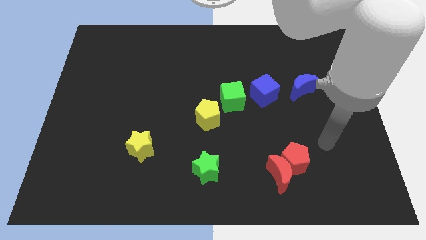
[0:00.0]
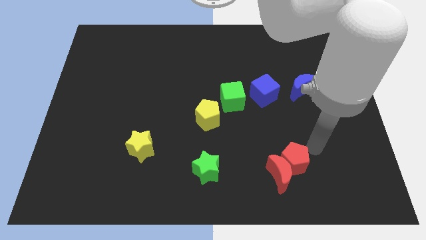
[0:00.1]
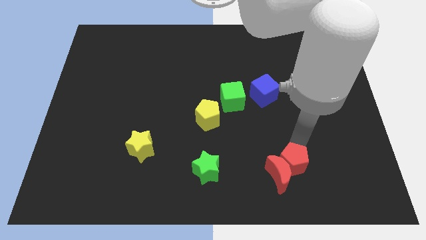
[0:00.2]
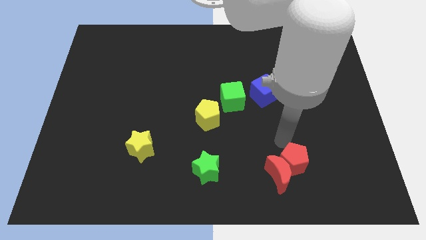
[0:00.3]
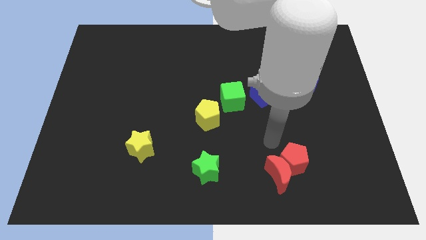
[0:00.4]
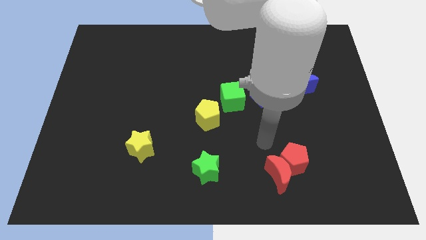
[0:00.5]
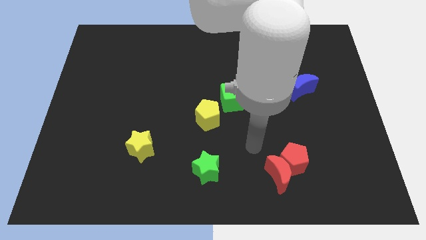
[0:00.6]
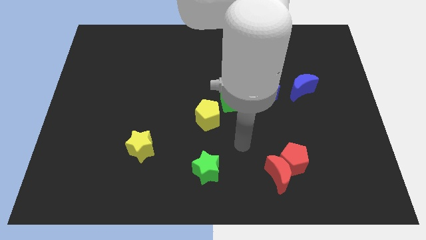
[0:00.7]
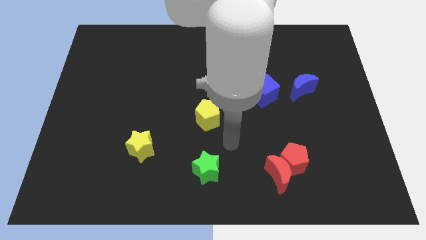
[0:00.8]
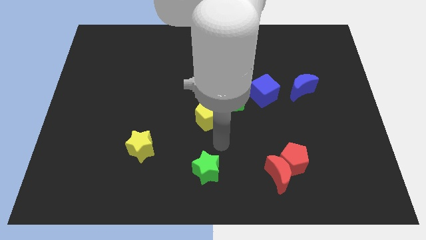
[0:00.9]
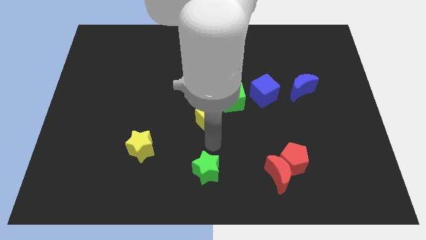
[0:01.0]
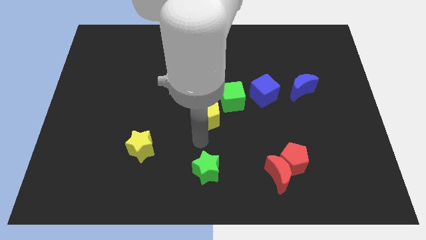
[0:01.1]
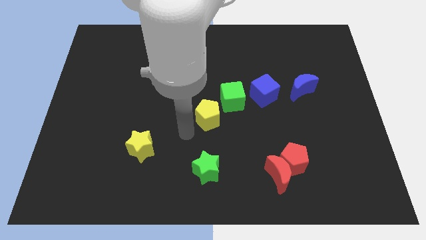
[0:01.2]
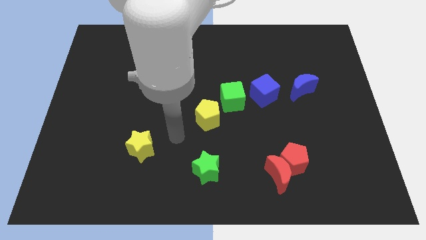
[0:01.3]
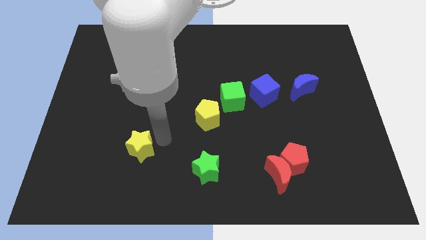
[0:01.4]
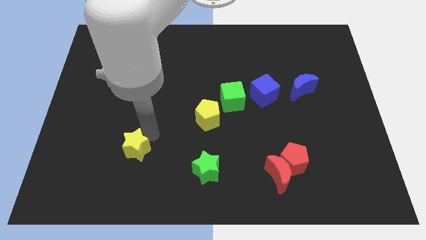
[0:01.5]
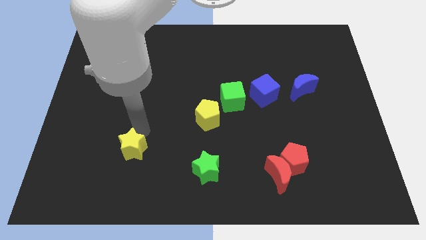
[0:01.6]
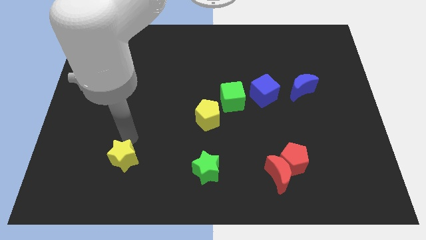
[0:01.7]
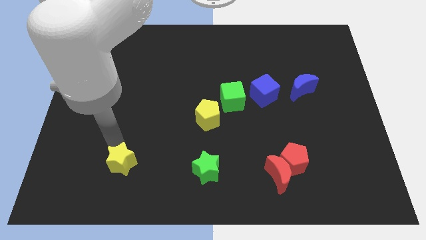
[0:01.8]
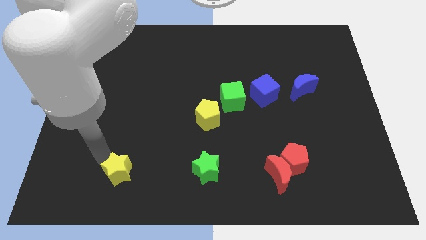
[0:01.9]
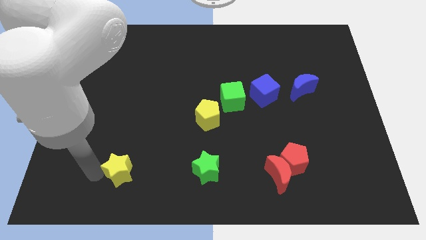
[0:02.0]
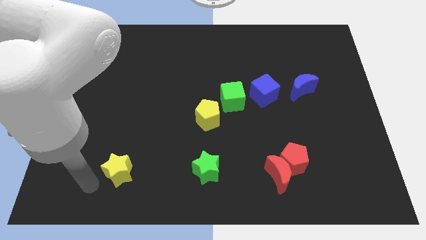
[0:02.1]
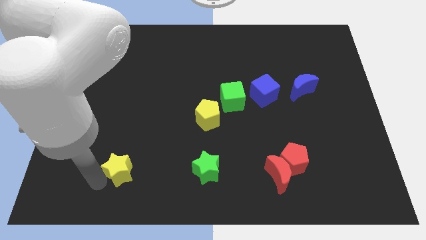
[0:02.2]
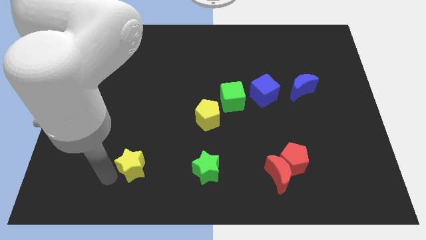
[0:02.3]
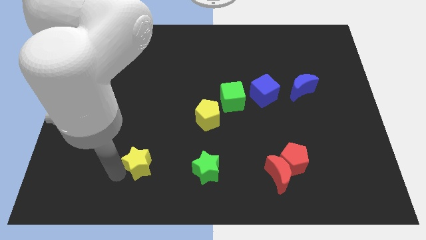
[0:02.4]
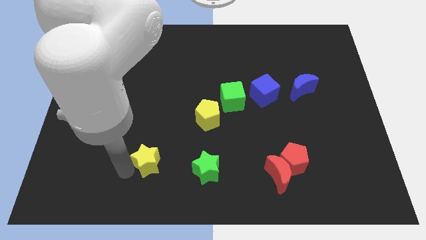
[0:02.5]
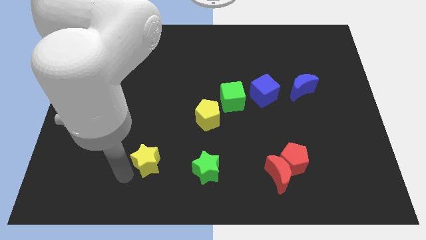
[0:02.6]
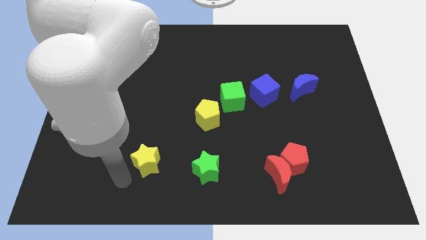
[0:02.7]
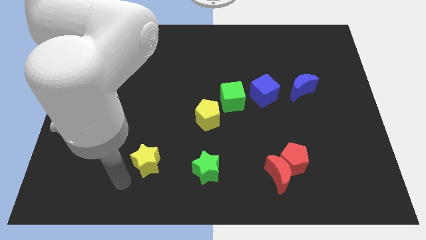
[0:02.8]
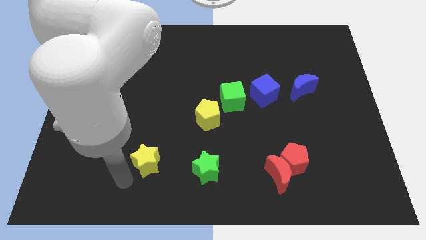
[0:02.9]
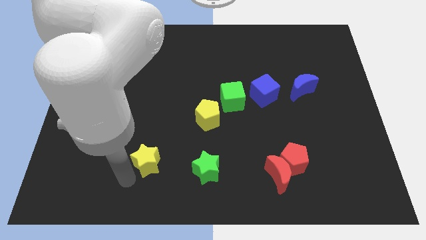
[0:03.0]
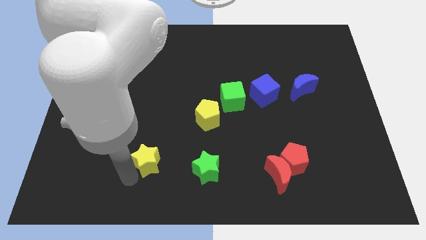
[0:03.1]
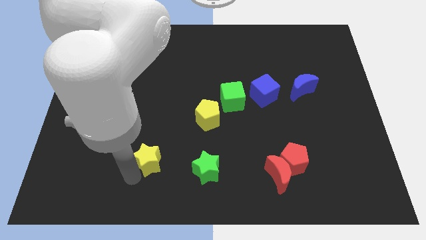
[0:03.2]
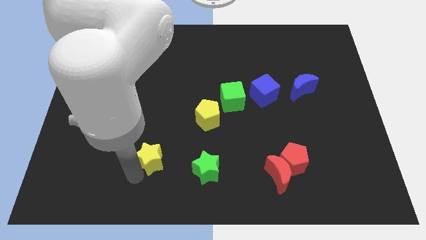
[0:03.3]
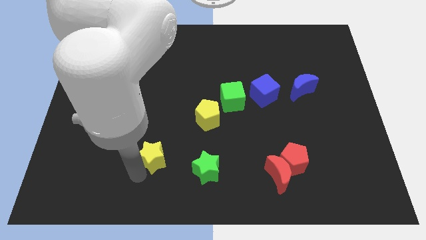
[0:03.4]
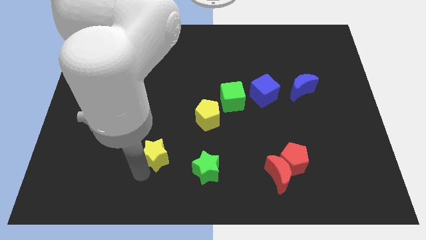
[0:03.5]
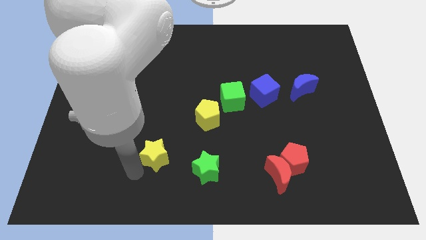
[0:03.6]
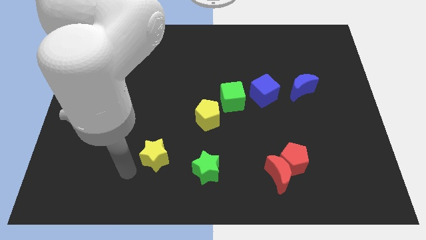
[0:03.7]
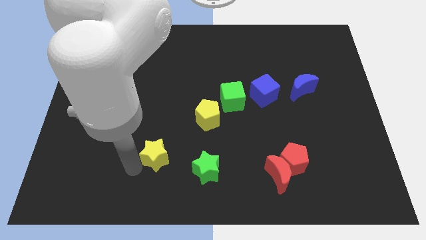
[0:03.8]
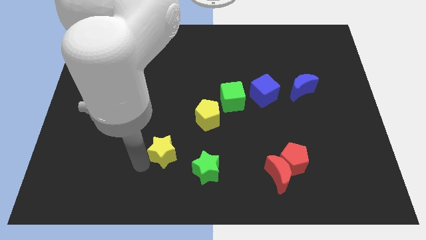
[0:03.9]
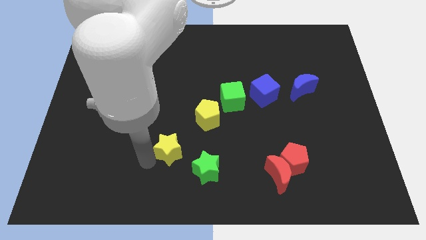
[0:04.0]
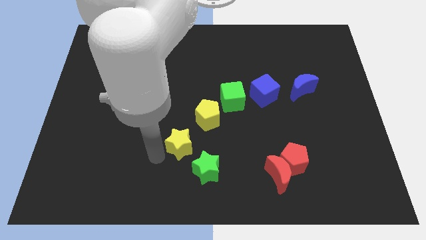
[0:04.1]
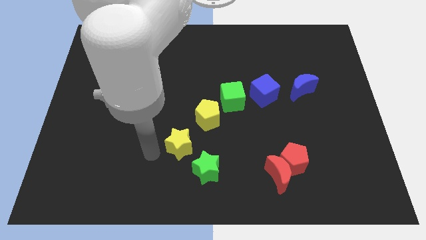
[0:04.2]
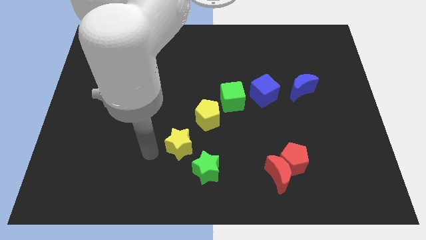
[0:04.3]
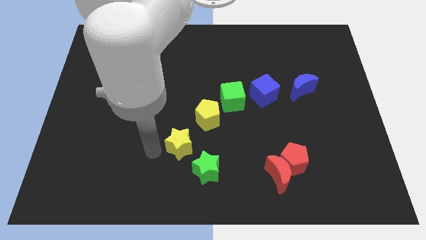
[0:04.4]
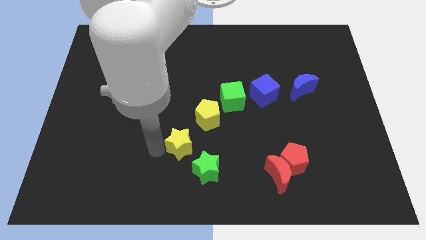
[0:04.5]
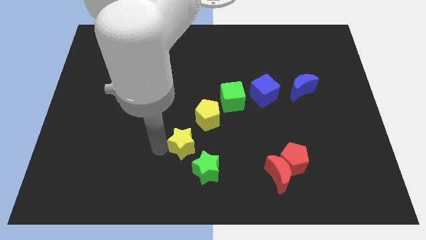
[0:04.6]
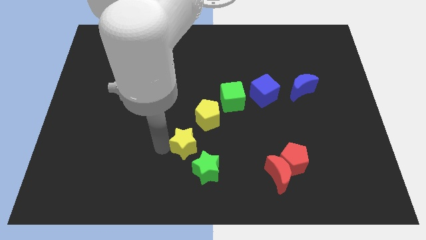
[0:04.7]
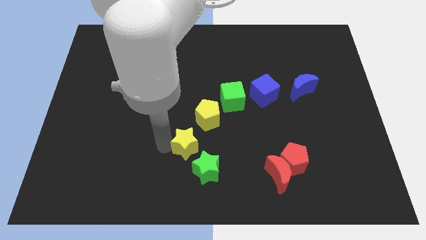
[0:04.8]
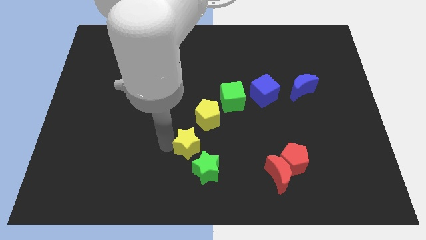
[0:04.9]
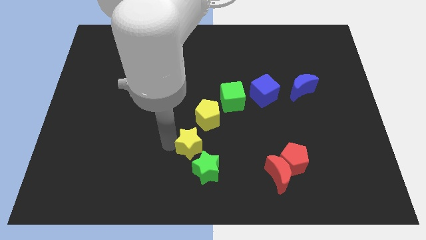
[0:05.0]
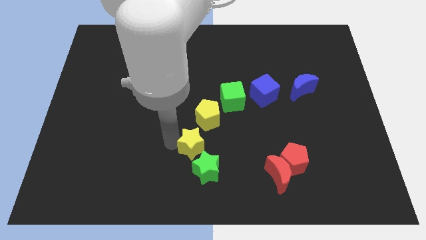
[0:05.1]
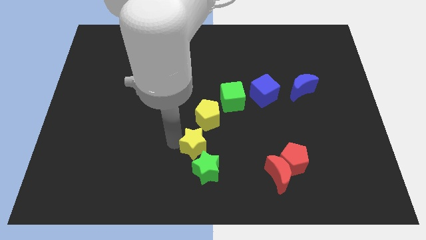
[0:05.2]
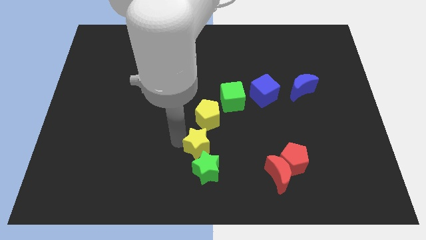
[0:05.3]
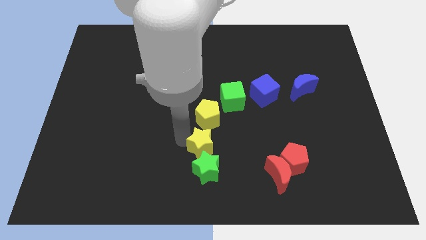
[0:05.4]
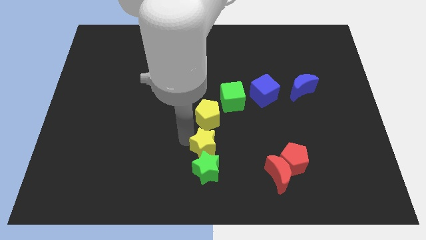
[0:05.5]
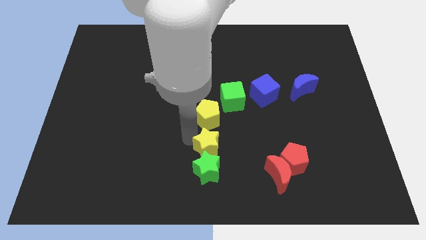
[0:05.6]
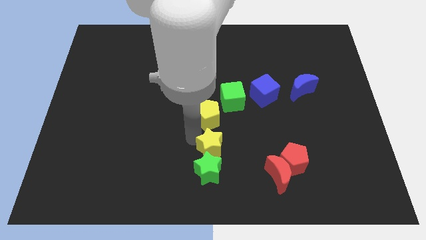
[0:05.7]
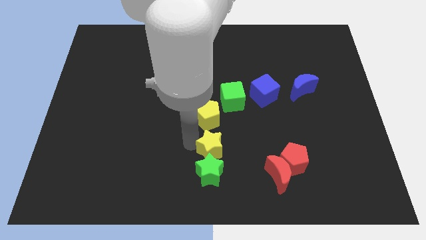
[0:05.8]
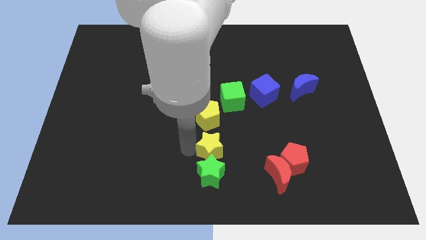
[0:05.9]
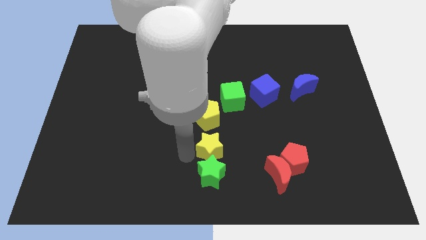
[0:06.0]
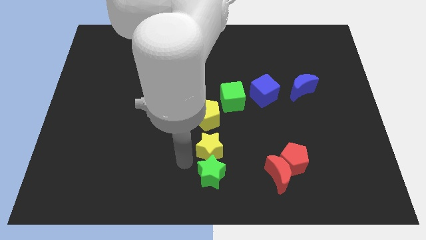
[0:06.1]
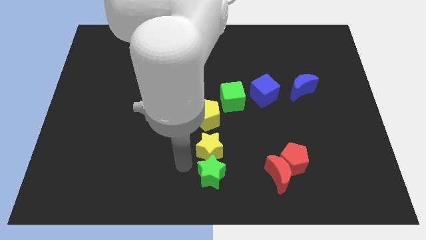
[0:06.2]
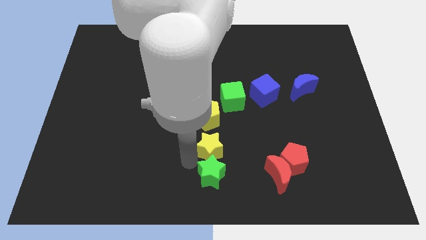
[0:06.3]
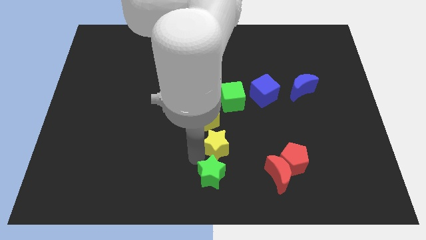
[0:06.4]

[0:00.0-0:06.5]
slide the yellow star to the bottom right of the yellow pentagon

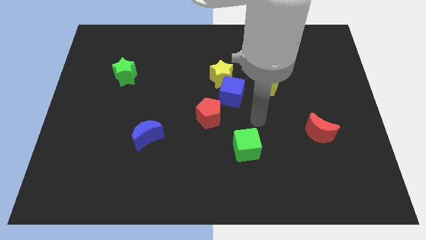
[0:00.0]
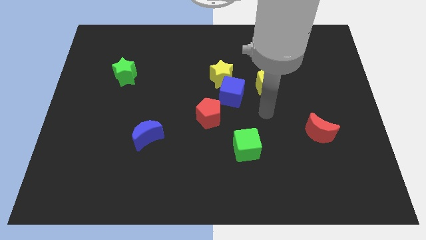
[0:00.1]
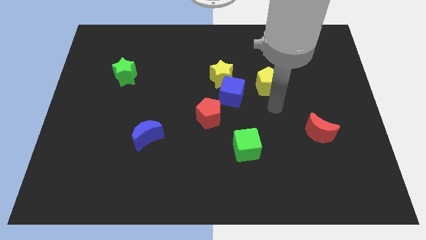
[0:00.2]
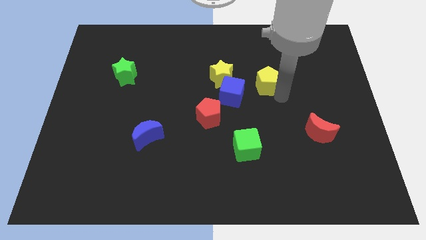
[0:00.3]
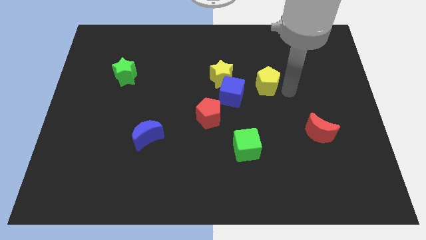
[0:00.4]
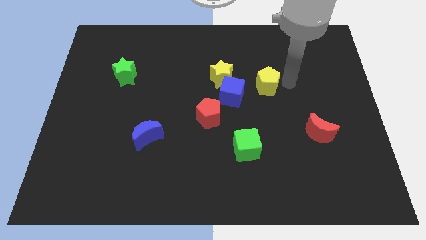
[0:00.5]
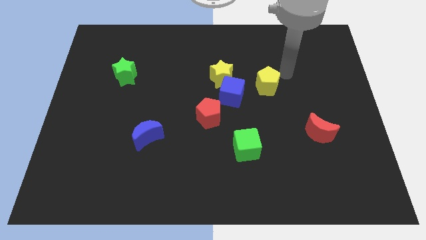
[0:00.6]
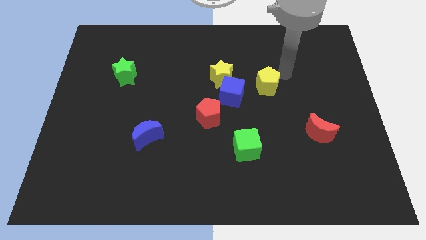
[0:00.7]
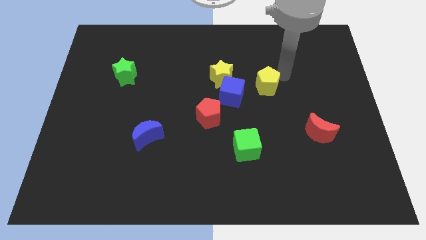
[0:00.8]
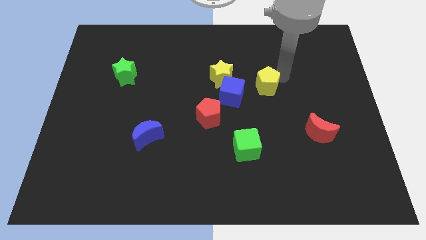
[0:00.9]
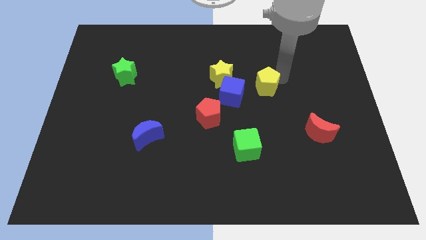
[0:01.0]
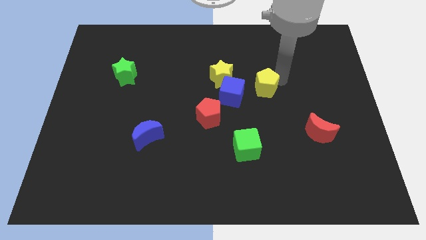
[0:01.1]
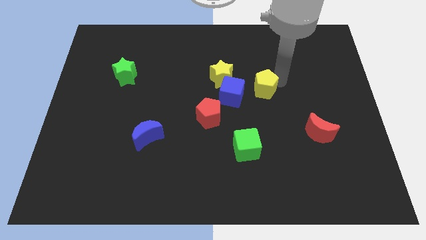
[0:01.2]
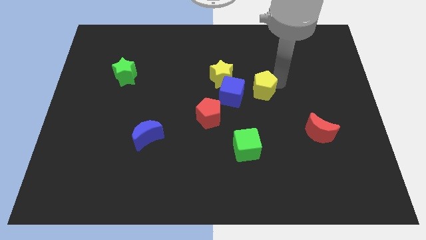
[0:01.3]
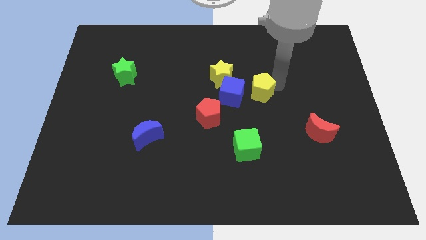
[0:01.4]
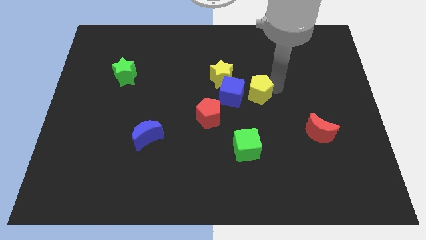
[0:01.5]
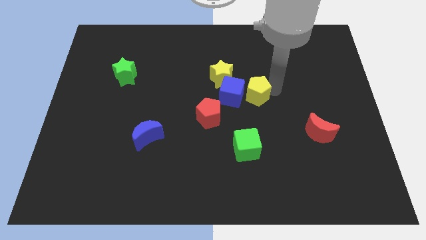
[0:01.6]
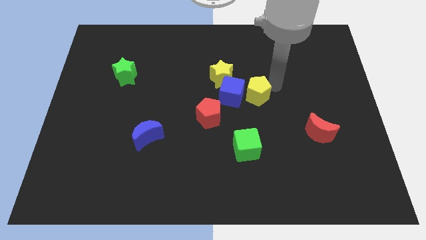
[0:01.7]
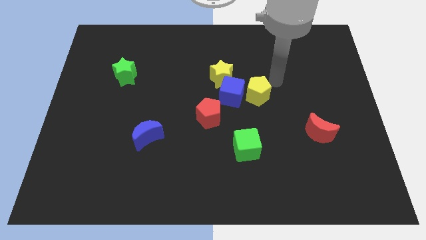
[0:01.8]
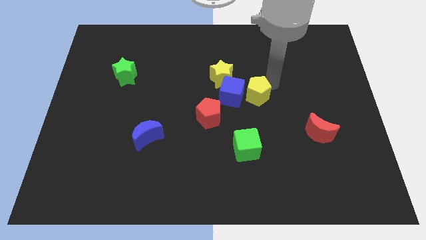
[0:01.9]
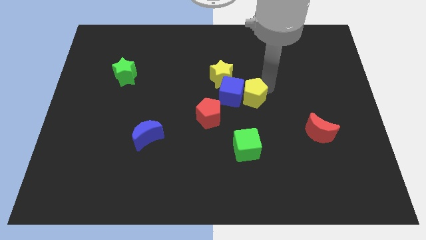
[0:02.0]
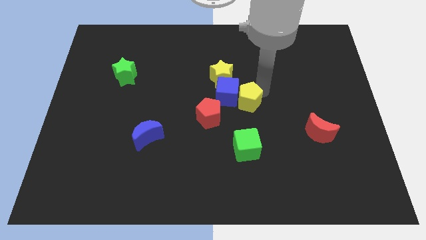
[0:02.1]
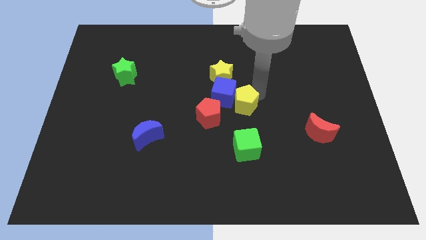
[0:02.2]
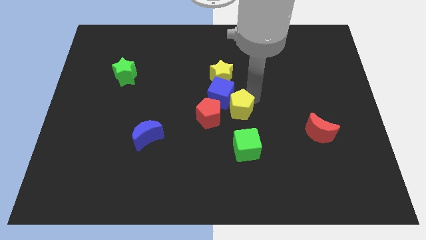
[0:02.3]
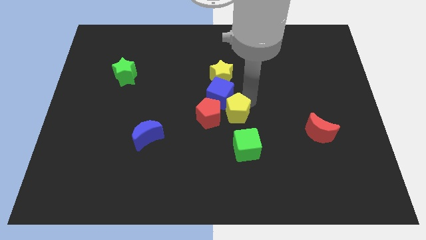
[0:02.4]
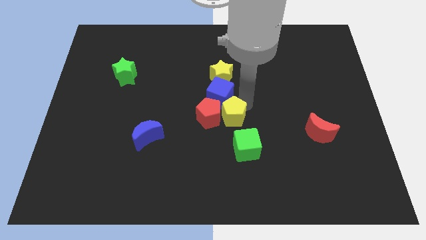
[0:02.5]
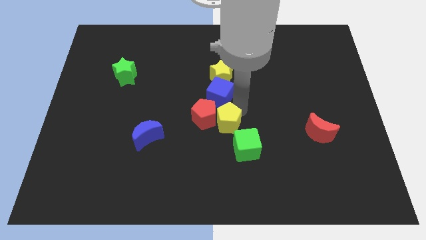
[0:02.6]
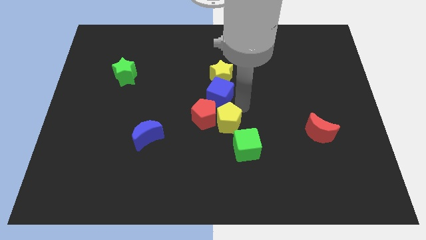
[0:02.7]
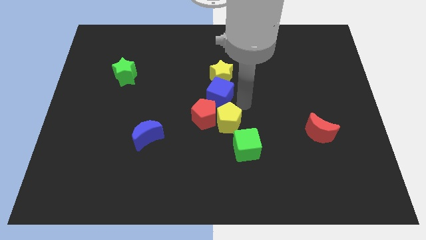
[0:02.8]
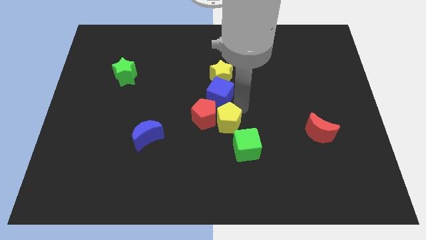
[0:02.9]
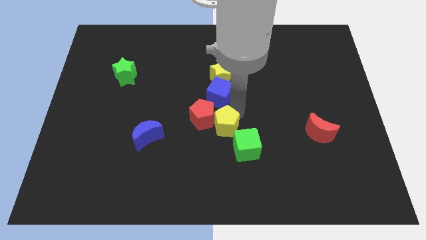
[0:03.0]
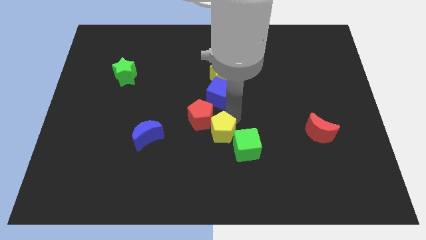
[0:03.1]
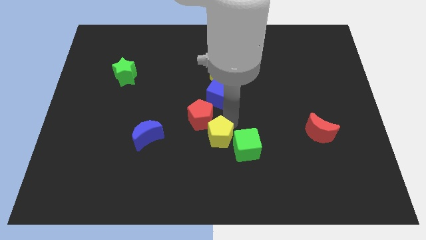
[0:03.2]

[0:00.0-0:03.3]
slide the yellow pentagon to the bottom of the red pentagon
